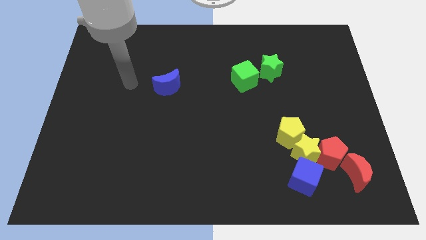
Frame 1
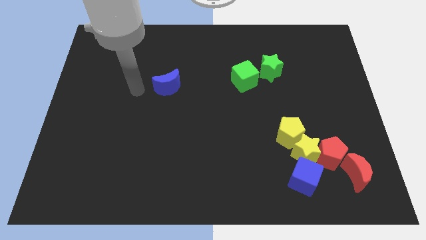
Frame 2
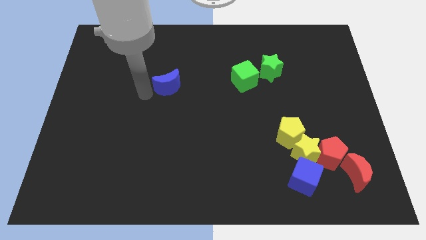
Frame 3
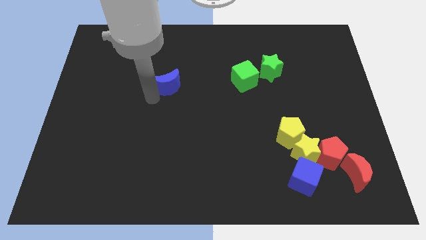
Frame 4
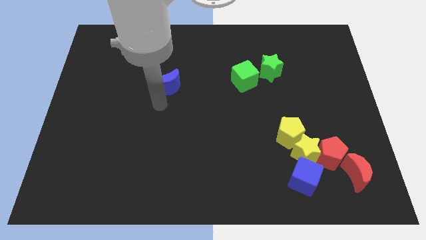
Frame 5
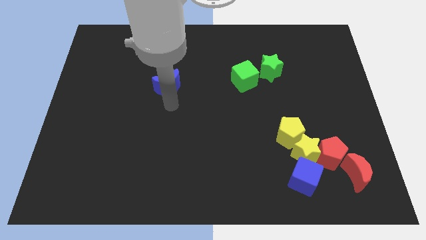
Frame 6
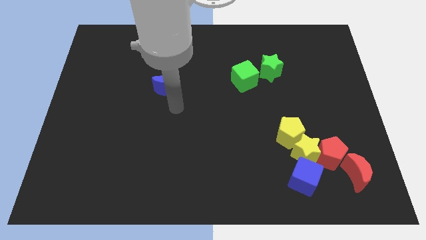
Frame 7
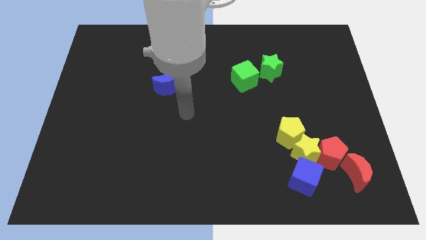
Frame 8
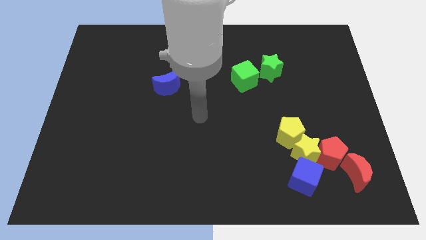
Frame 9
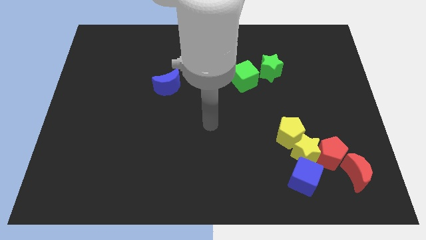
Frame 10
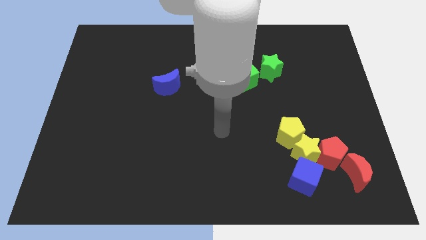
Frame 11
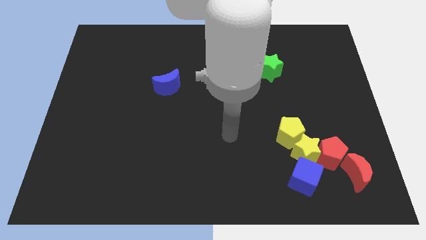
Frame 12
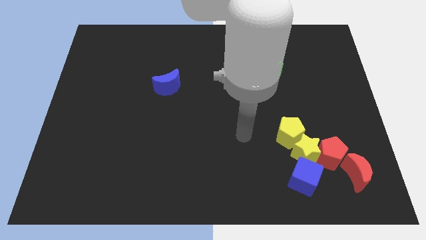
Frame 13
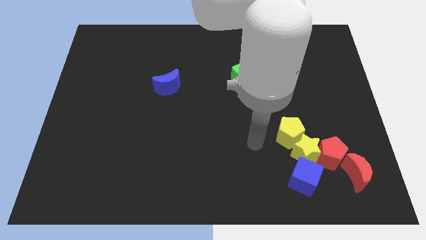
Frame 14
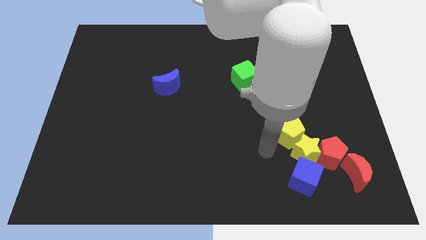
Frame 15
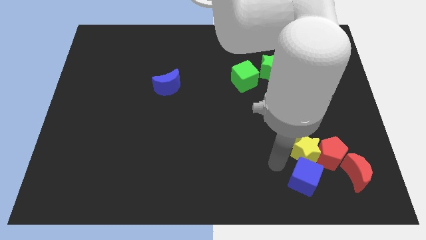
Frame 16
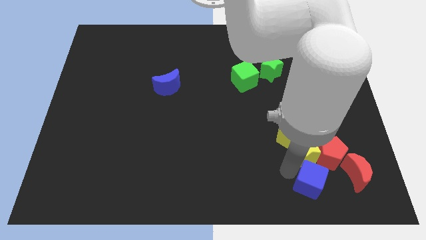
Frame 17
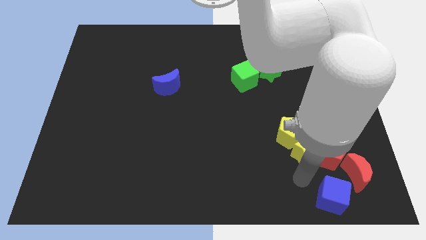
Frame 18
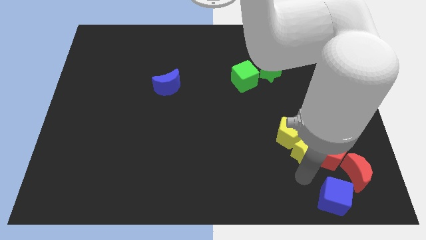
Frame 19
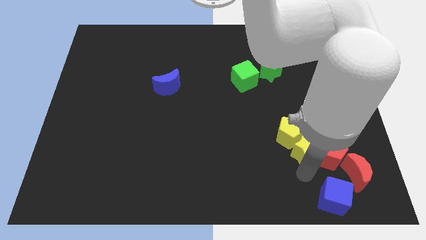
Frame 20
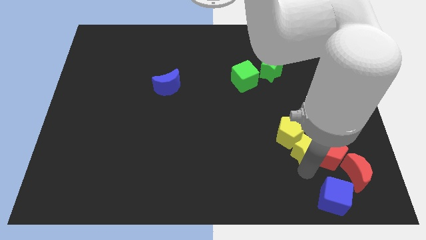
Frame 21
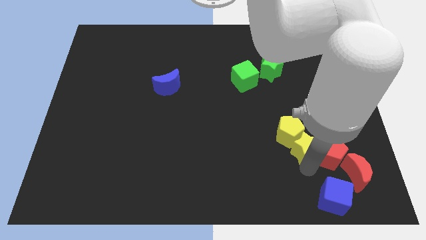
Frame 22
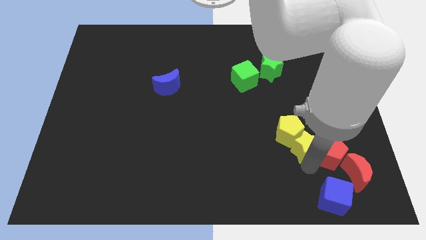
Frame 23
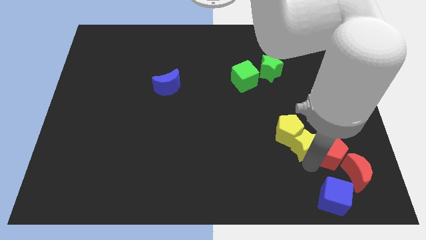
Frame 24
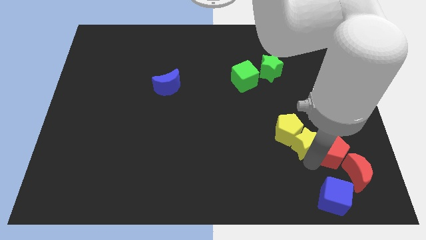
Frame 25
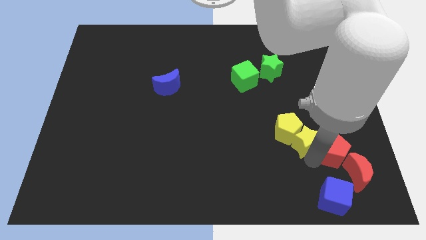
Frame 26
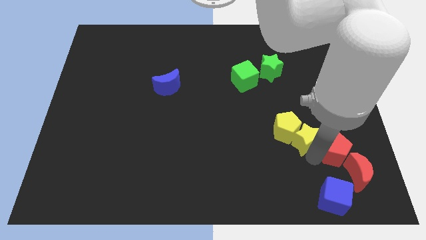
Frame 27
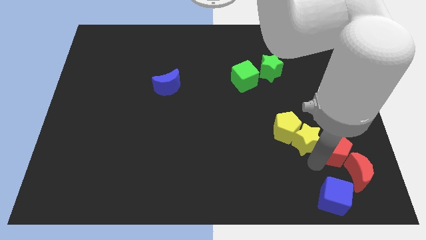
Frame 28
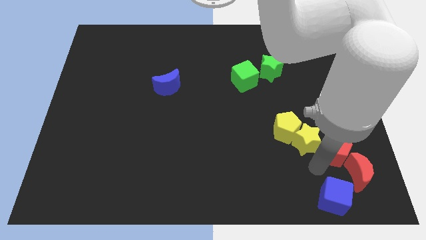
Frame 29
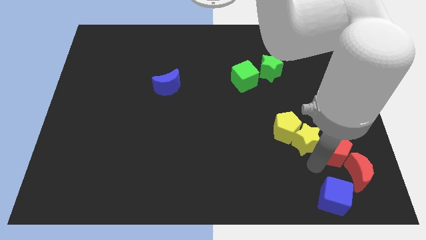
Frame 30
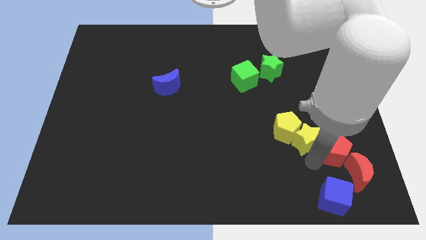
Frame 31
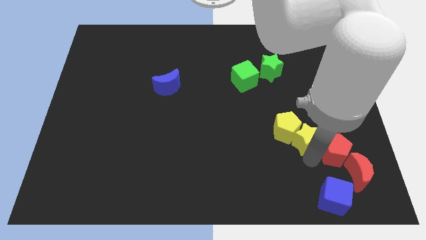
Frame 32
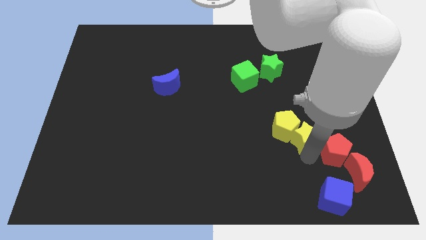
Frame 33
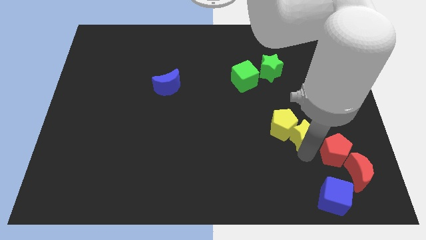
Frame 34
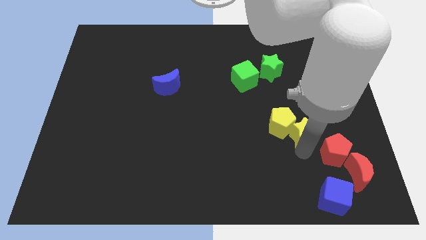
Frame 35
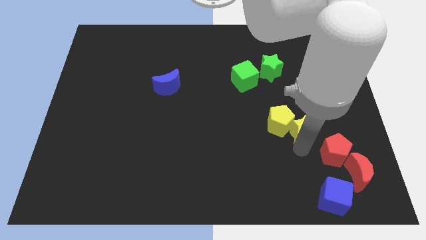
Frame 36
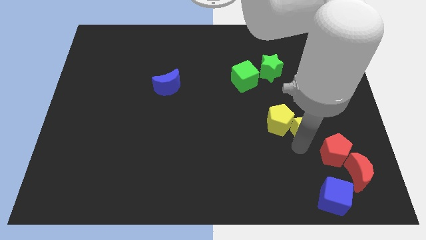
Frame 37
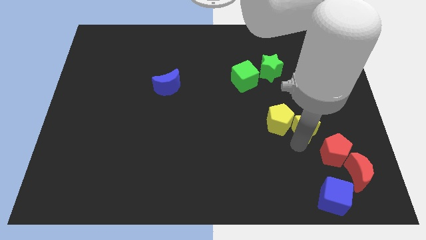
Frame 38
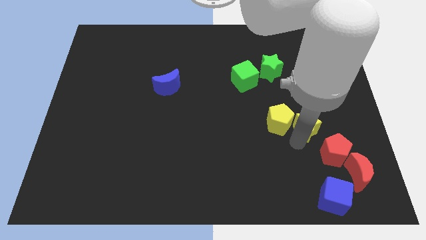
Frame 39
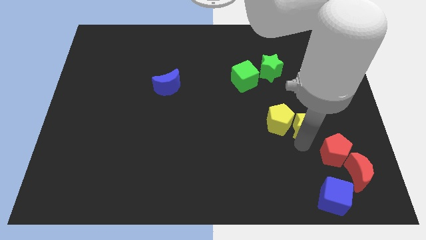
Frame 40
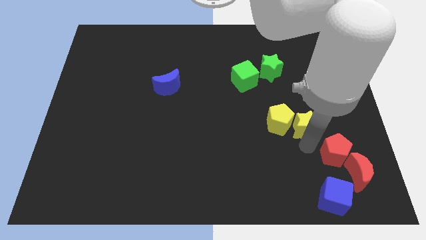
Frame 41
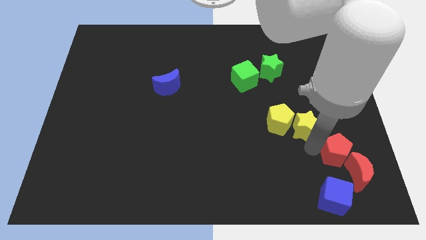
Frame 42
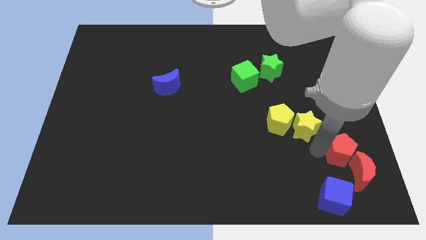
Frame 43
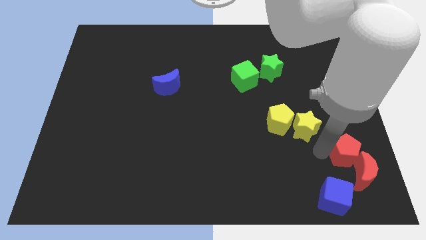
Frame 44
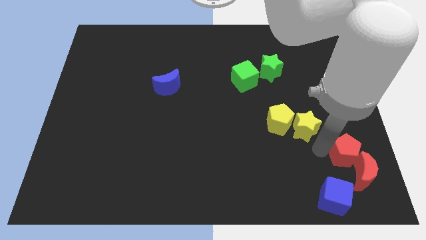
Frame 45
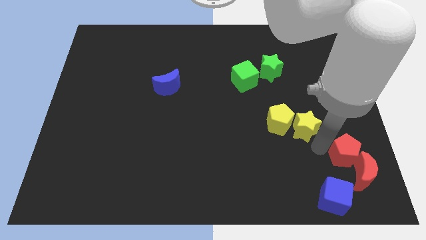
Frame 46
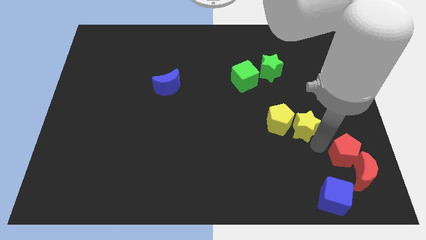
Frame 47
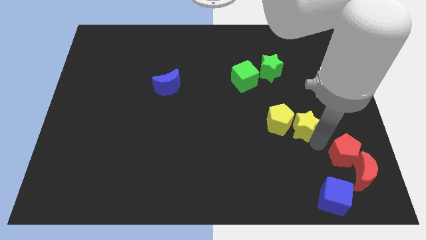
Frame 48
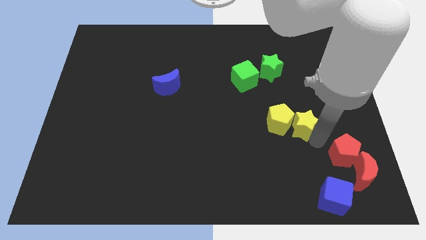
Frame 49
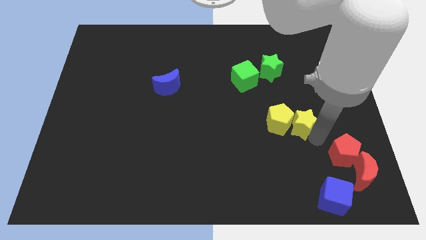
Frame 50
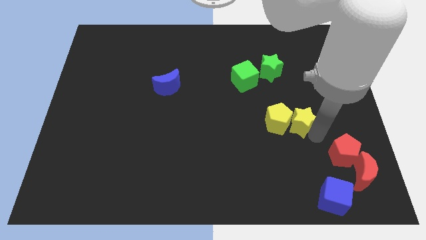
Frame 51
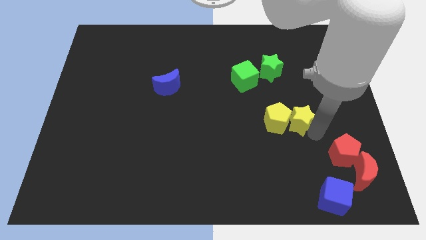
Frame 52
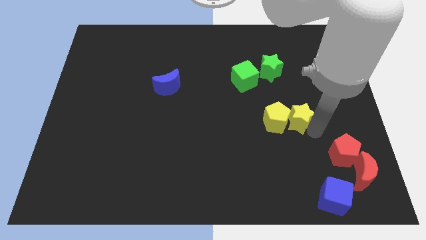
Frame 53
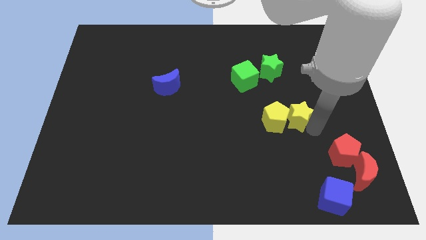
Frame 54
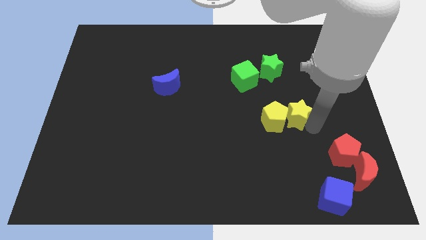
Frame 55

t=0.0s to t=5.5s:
move the yellow star away from the red pentagon, yellow pentagon, and blue cube

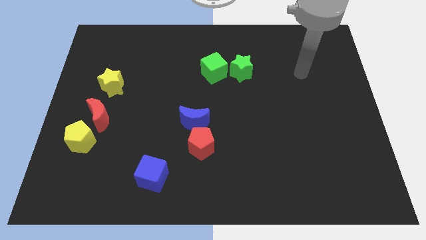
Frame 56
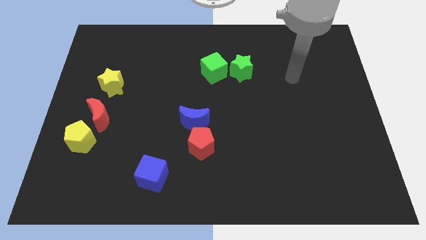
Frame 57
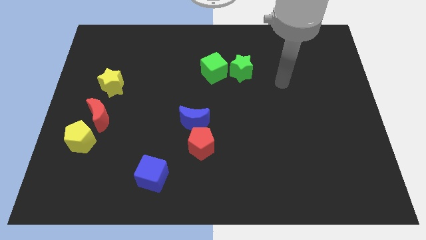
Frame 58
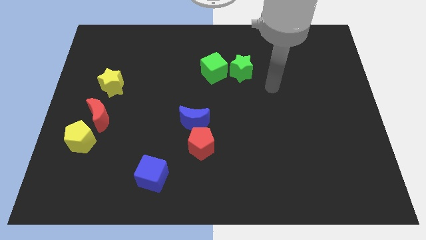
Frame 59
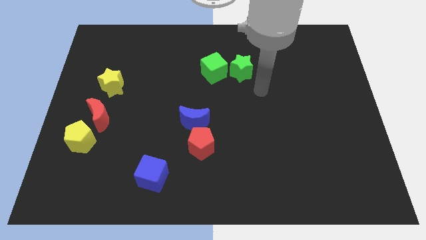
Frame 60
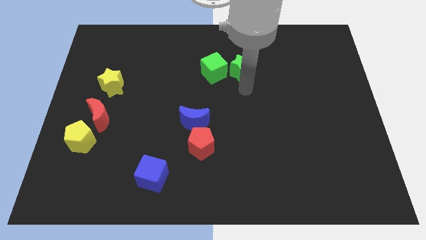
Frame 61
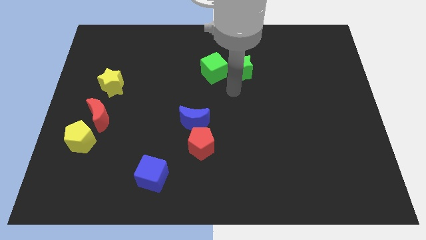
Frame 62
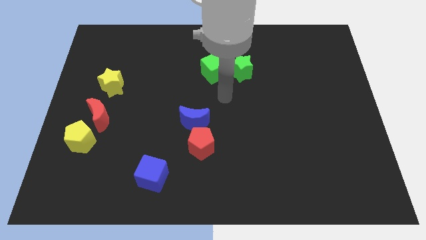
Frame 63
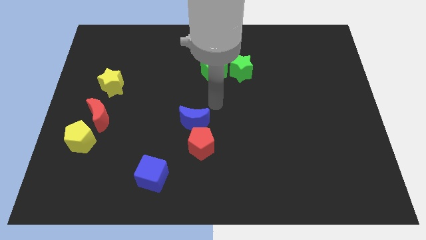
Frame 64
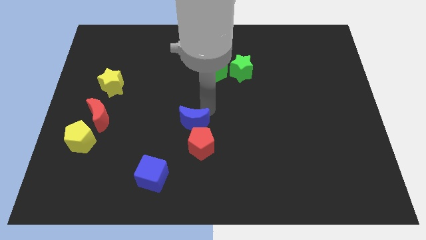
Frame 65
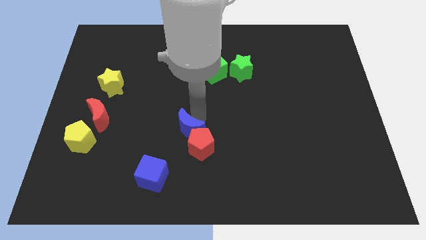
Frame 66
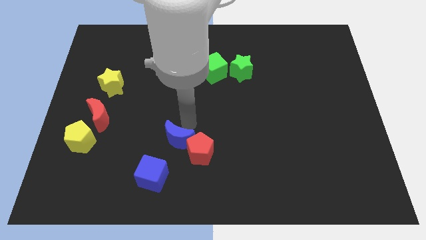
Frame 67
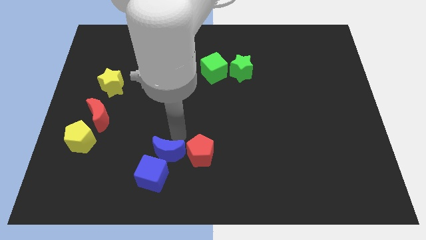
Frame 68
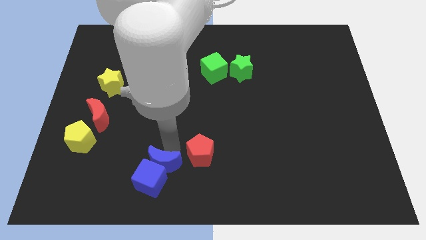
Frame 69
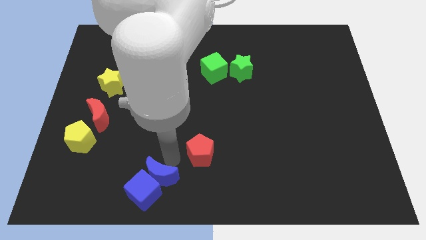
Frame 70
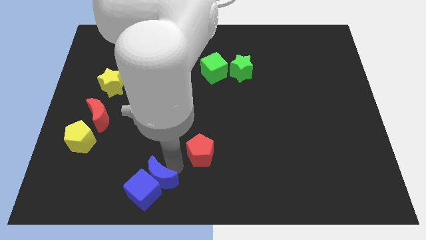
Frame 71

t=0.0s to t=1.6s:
separate the red pentagon from the blue moon

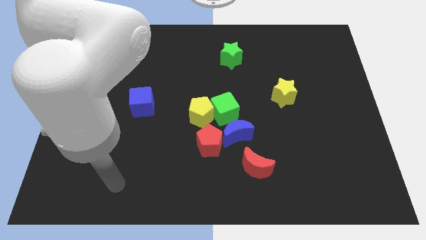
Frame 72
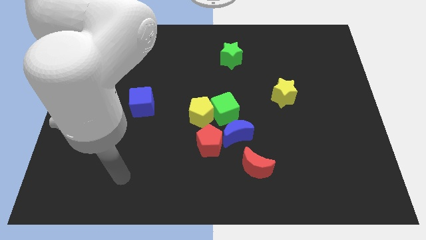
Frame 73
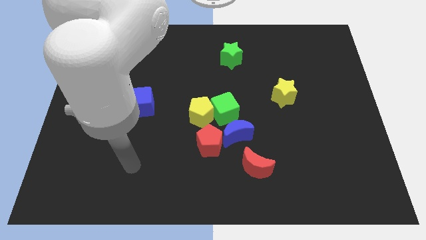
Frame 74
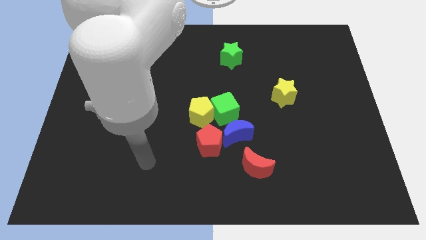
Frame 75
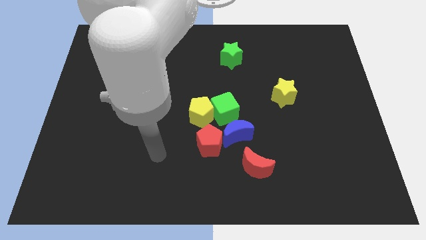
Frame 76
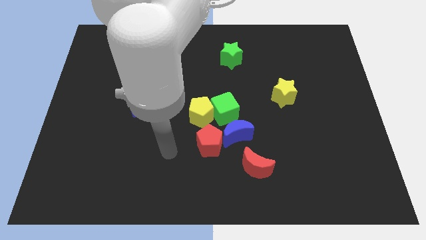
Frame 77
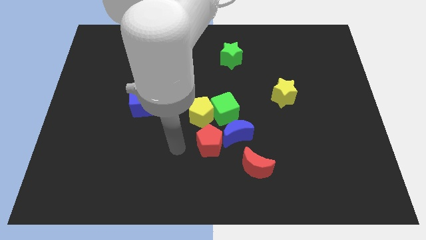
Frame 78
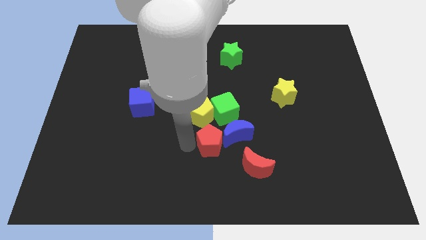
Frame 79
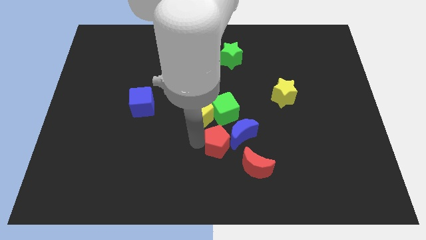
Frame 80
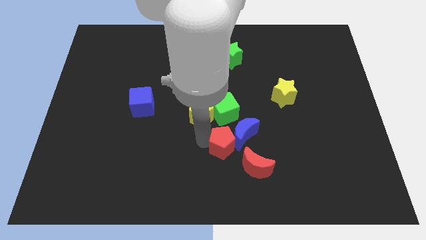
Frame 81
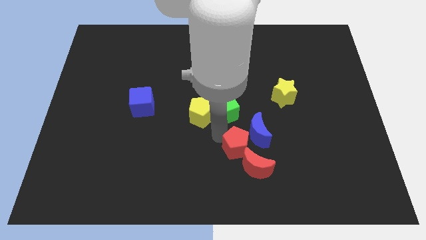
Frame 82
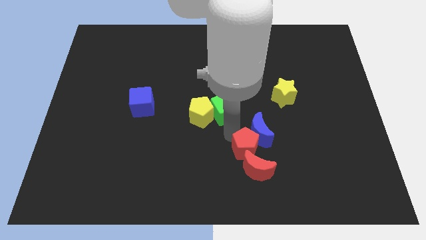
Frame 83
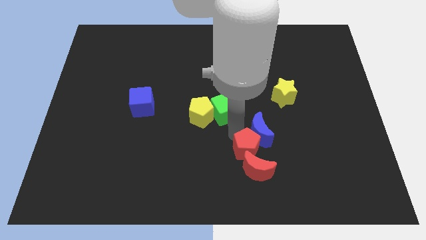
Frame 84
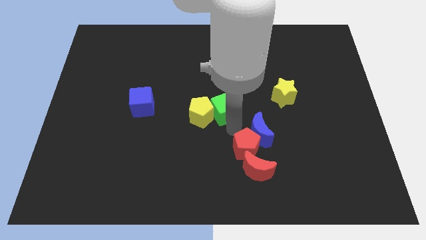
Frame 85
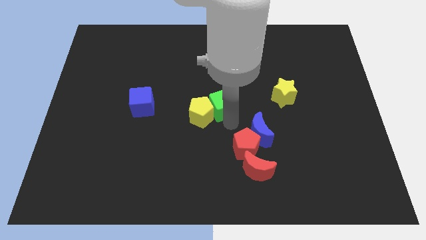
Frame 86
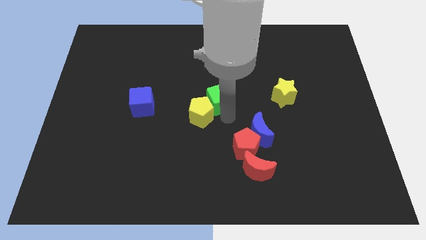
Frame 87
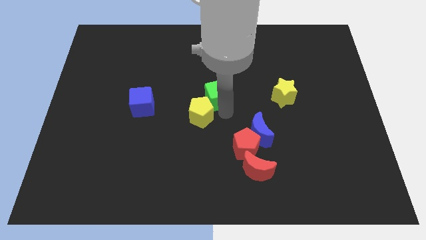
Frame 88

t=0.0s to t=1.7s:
separate the green cube from the group

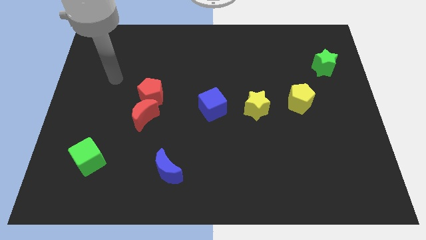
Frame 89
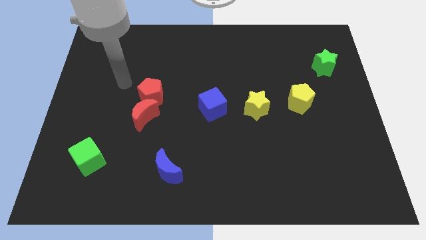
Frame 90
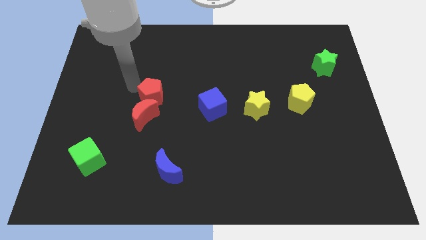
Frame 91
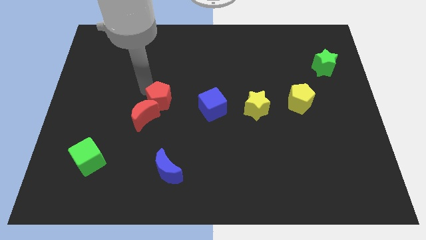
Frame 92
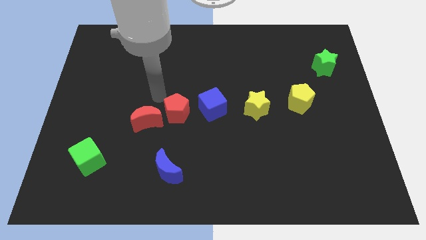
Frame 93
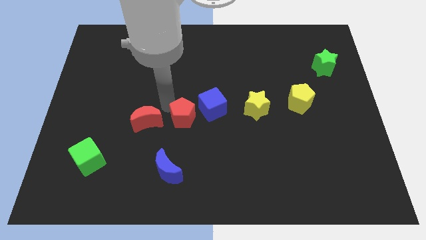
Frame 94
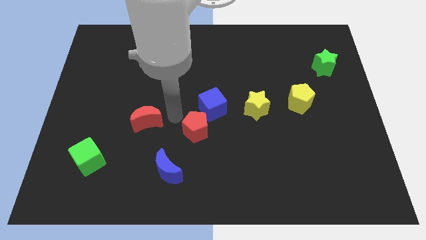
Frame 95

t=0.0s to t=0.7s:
separate the red moon from the red pentagon
